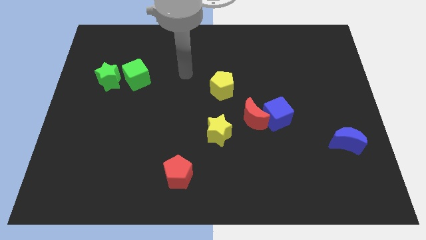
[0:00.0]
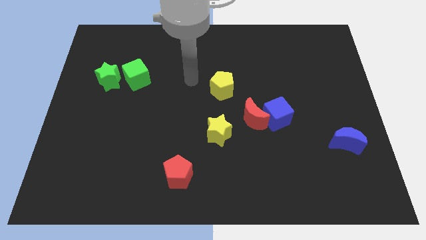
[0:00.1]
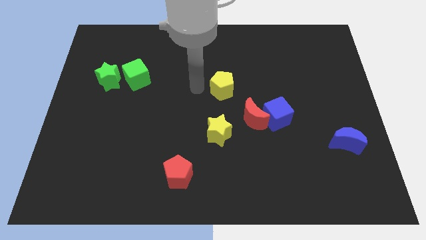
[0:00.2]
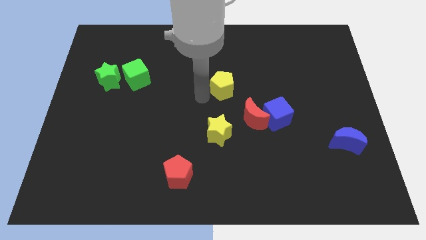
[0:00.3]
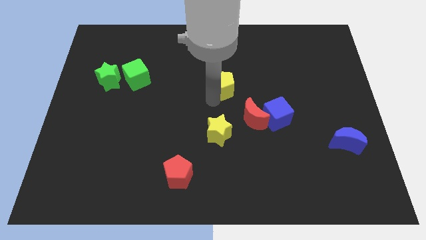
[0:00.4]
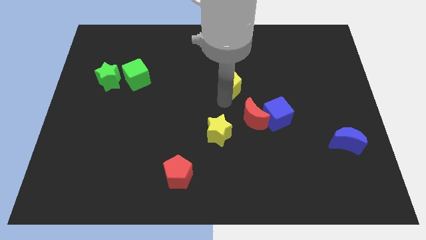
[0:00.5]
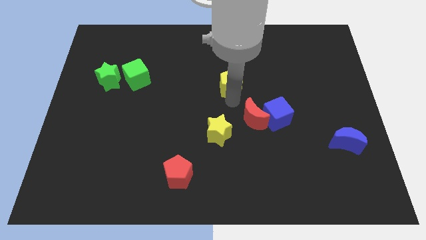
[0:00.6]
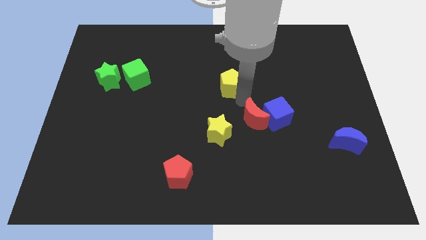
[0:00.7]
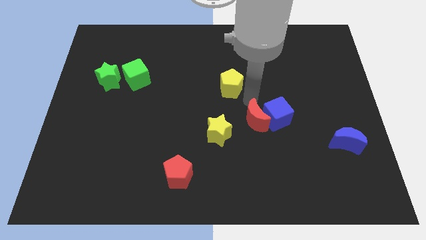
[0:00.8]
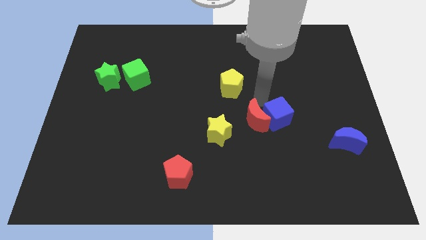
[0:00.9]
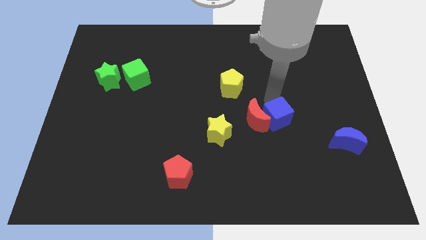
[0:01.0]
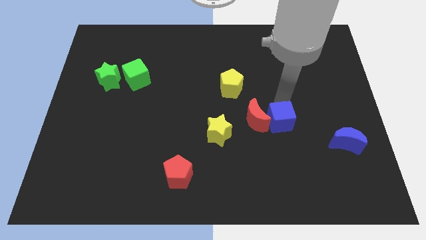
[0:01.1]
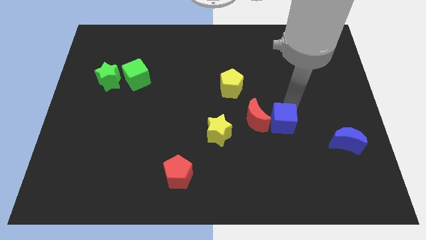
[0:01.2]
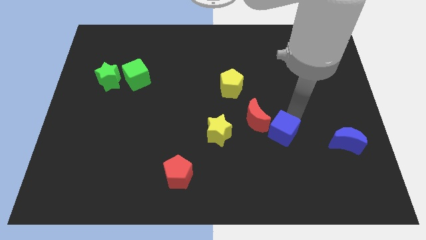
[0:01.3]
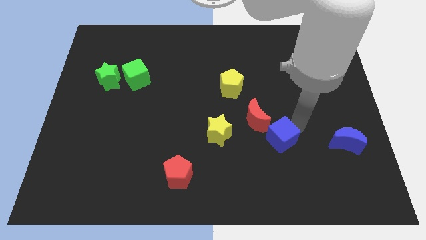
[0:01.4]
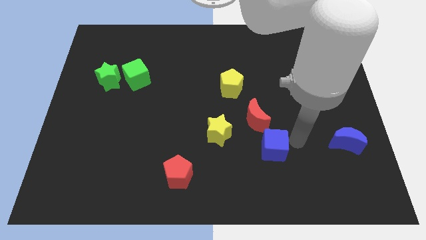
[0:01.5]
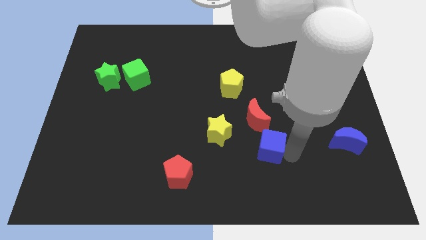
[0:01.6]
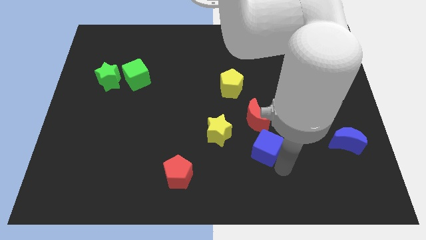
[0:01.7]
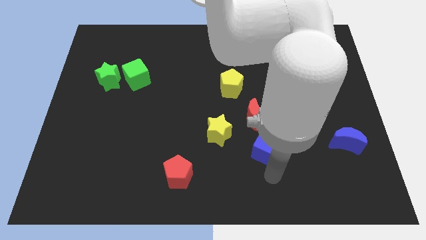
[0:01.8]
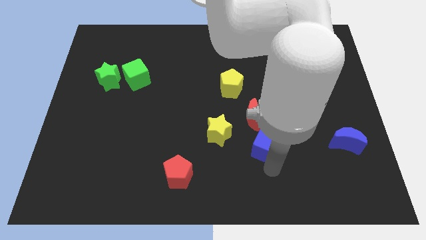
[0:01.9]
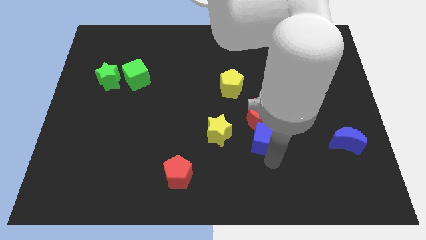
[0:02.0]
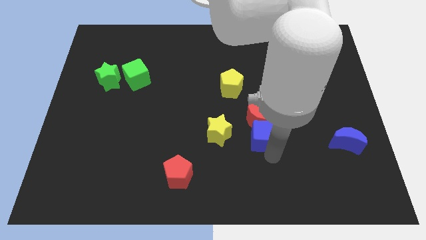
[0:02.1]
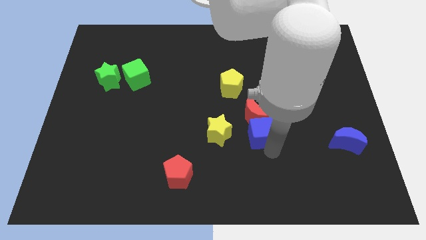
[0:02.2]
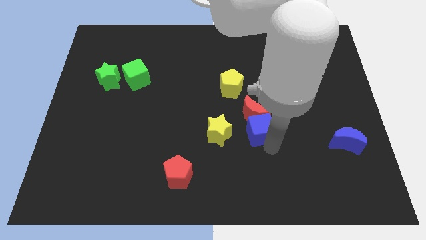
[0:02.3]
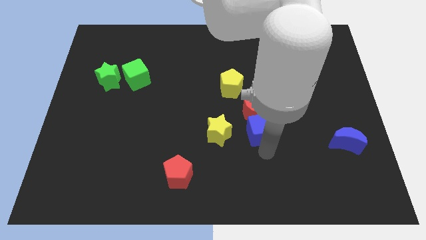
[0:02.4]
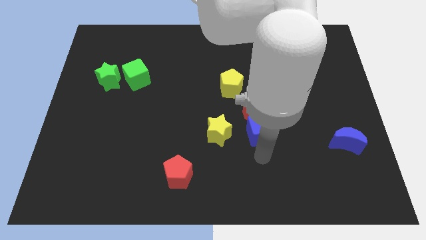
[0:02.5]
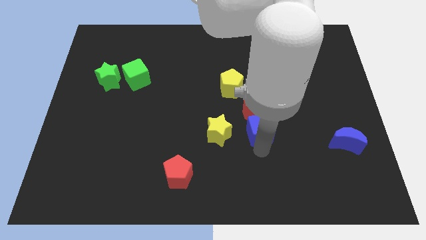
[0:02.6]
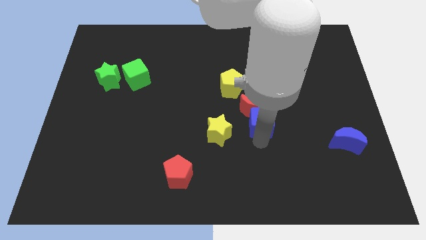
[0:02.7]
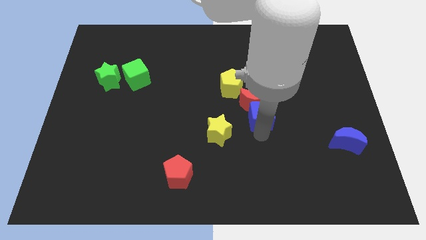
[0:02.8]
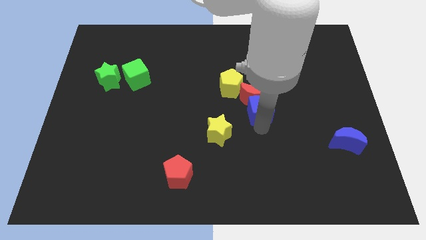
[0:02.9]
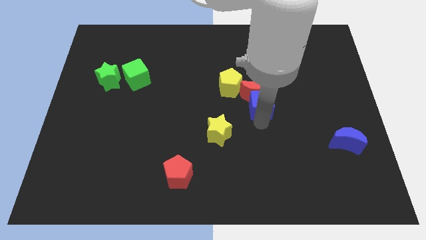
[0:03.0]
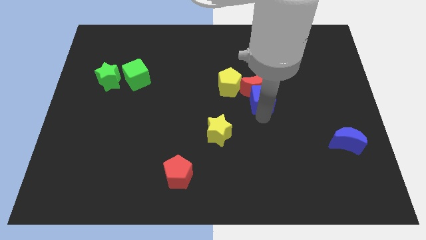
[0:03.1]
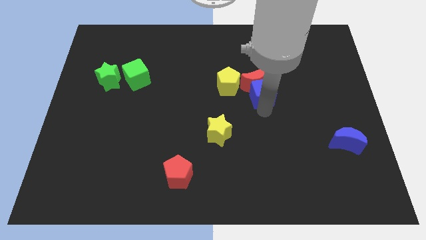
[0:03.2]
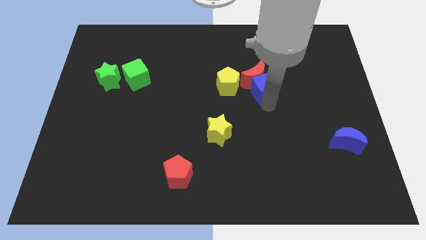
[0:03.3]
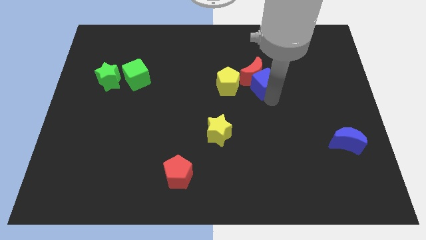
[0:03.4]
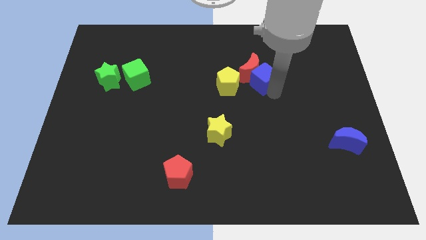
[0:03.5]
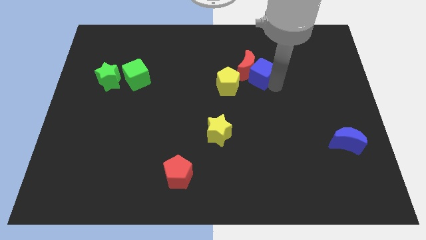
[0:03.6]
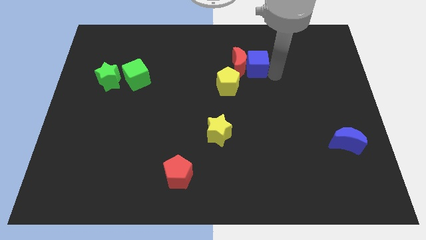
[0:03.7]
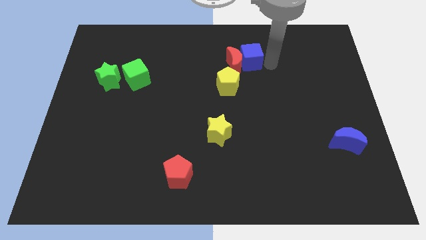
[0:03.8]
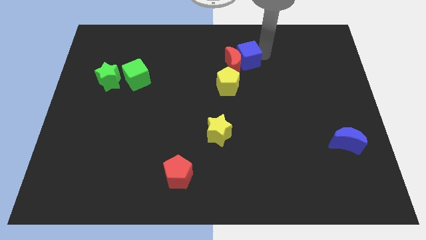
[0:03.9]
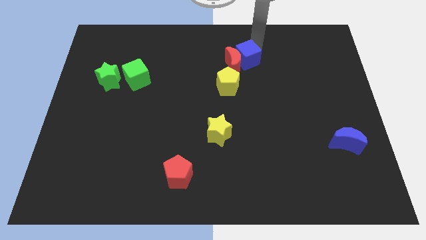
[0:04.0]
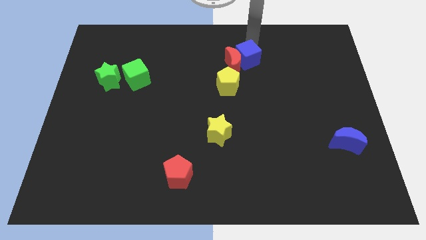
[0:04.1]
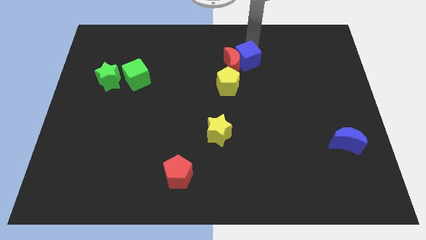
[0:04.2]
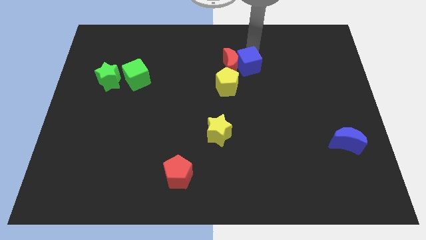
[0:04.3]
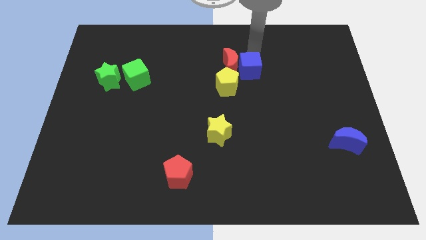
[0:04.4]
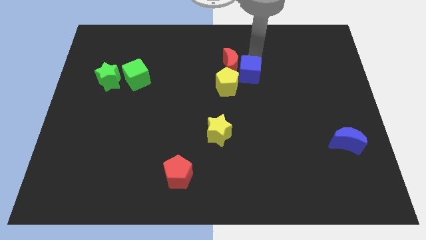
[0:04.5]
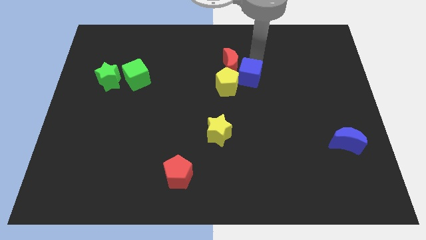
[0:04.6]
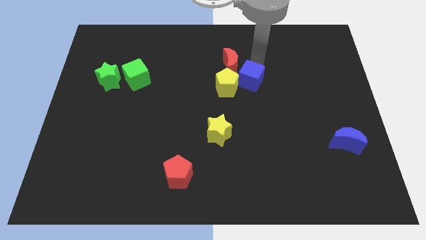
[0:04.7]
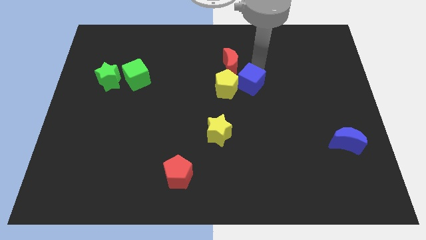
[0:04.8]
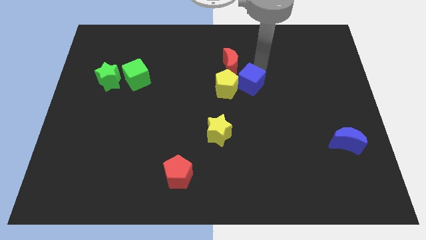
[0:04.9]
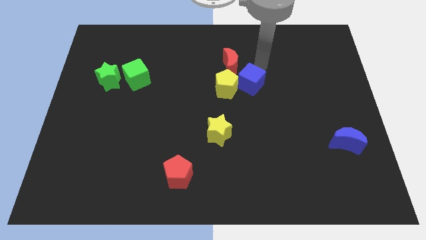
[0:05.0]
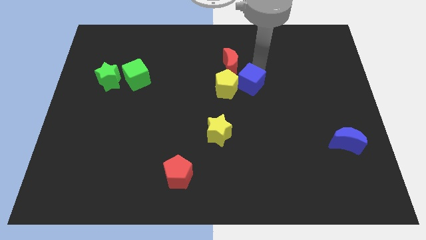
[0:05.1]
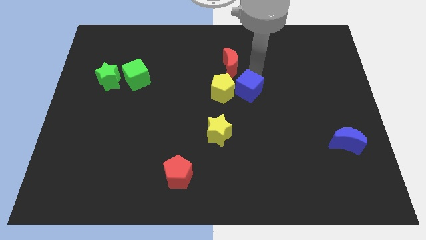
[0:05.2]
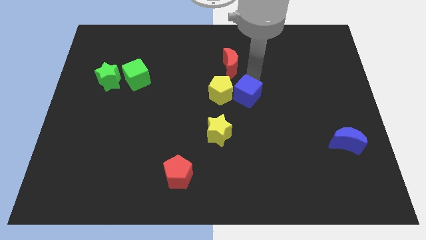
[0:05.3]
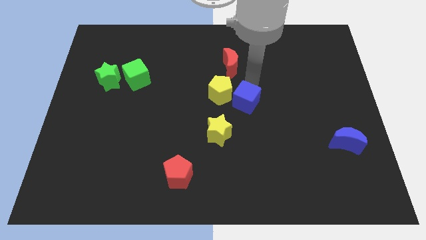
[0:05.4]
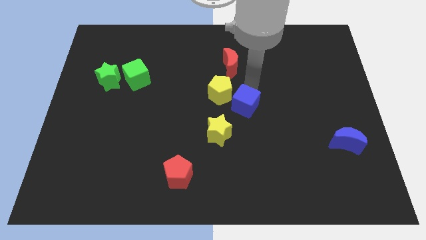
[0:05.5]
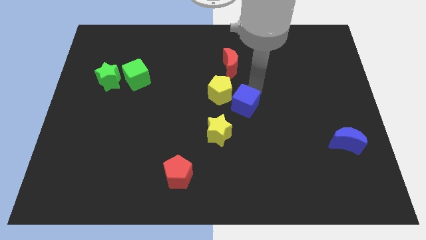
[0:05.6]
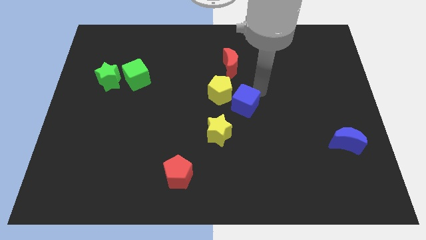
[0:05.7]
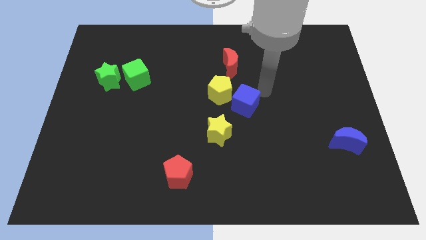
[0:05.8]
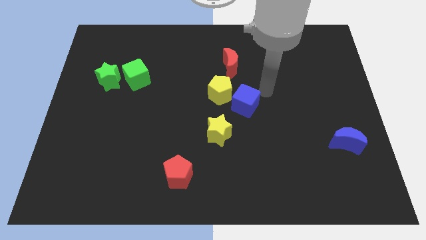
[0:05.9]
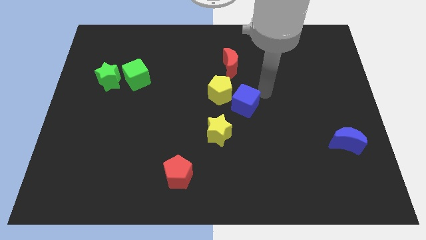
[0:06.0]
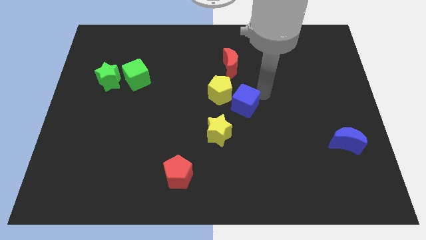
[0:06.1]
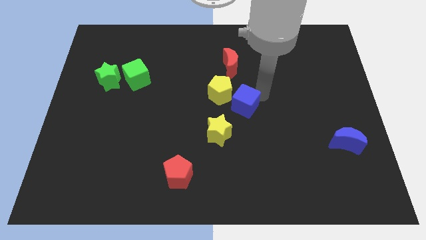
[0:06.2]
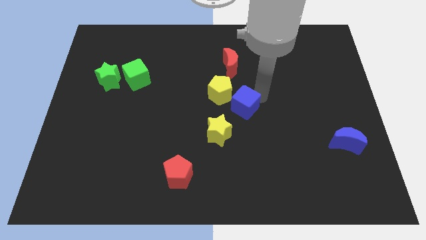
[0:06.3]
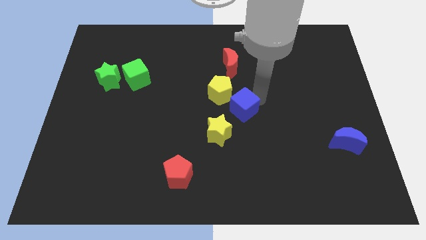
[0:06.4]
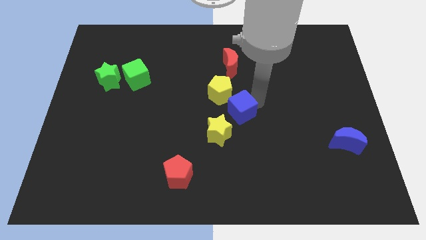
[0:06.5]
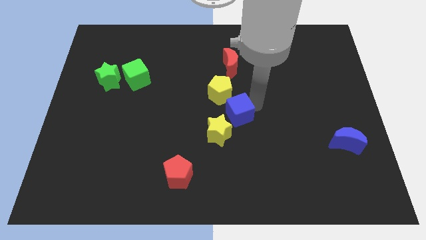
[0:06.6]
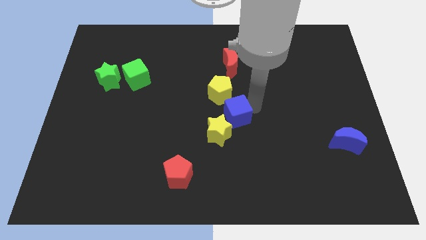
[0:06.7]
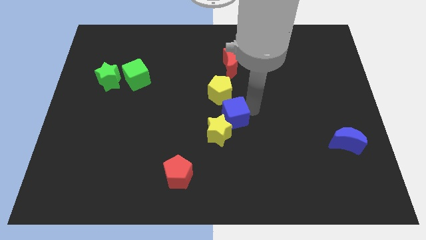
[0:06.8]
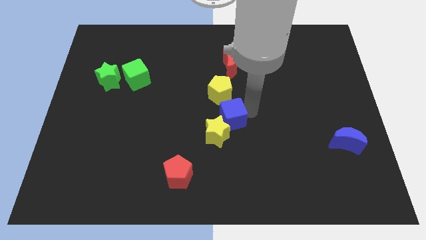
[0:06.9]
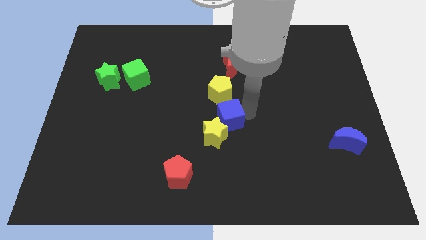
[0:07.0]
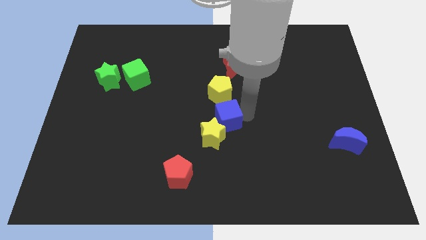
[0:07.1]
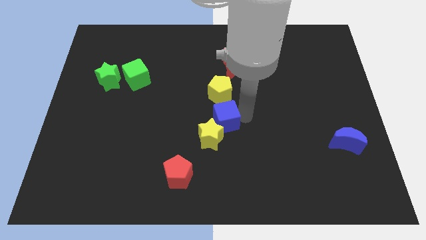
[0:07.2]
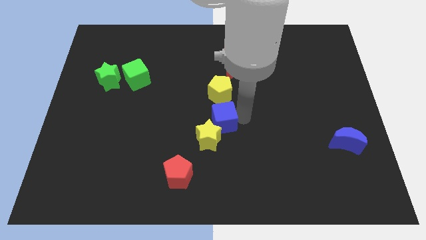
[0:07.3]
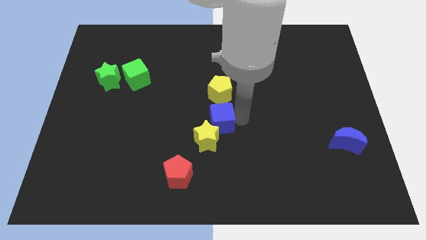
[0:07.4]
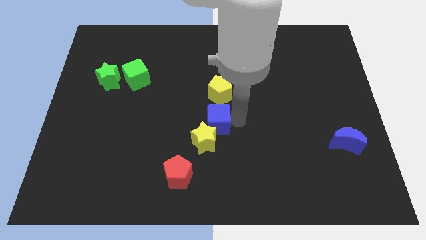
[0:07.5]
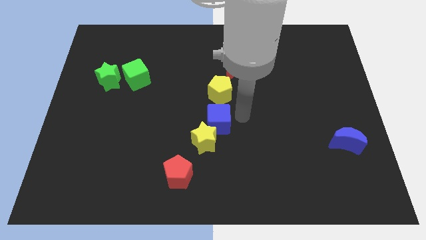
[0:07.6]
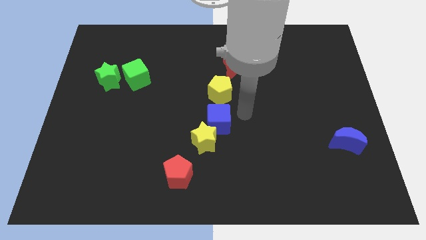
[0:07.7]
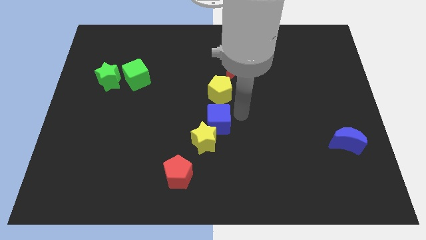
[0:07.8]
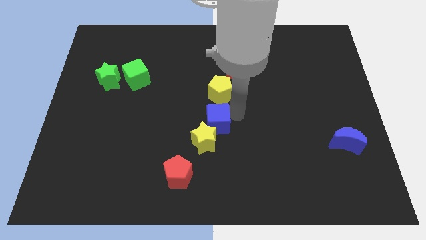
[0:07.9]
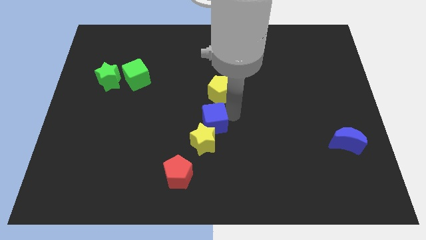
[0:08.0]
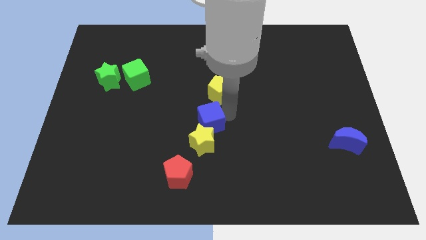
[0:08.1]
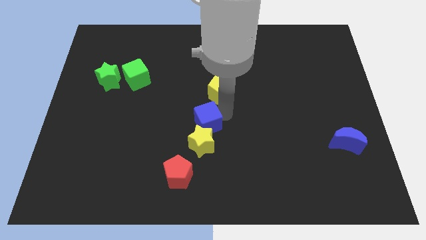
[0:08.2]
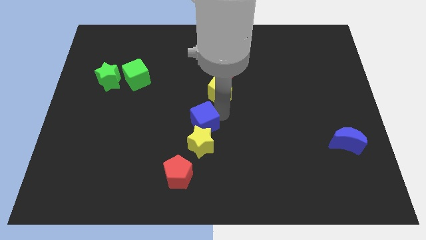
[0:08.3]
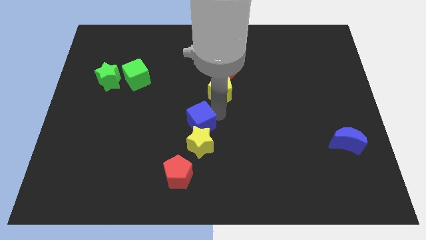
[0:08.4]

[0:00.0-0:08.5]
move the blue cube to the top side of the red pentagon
